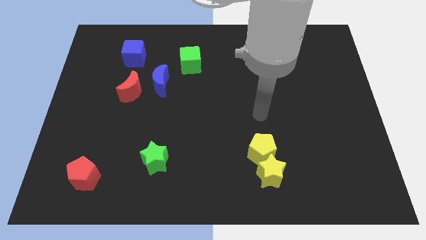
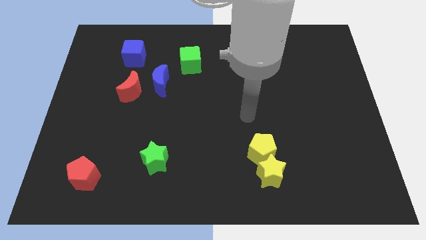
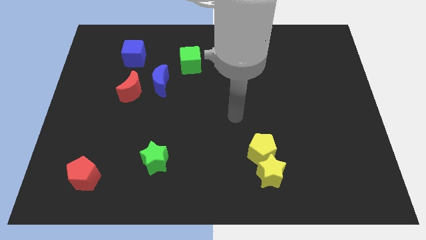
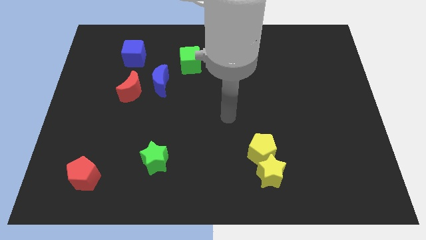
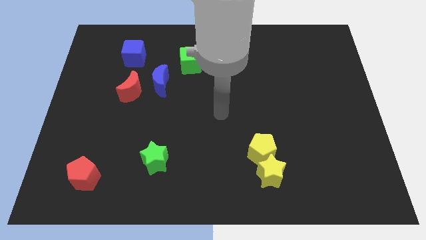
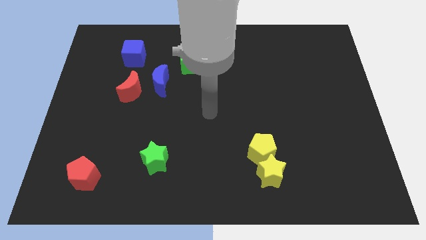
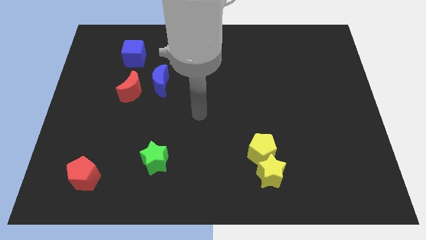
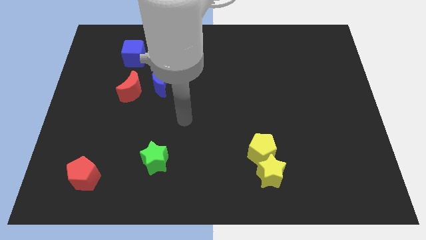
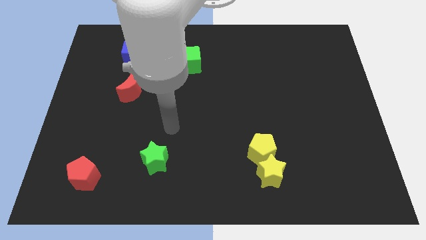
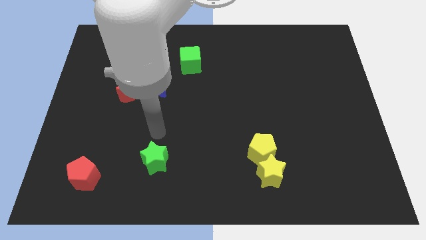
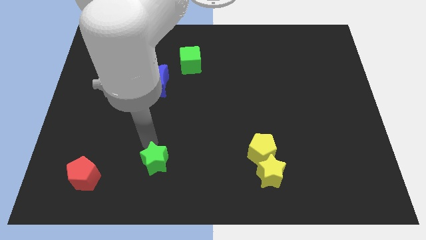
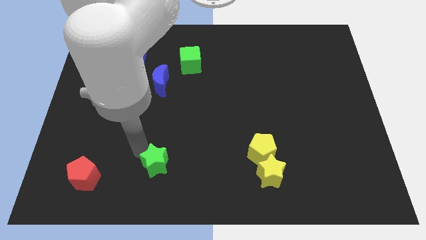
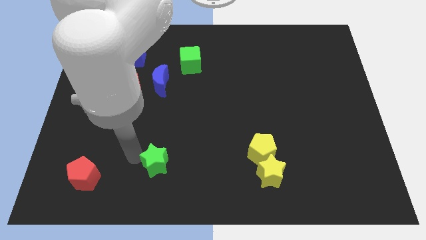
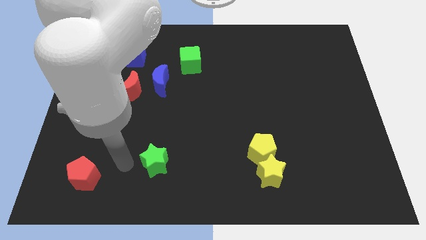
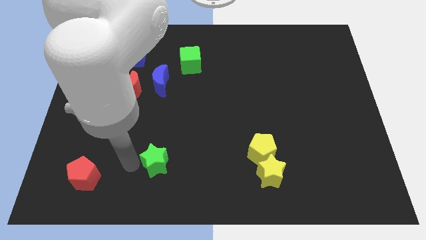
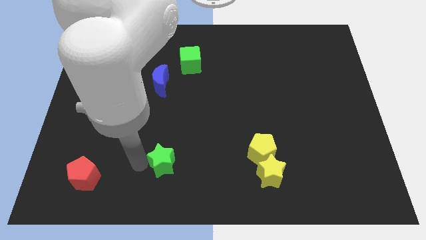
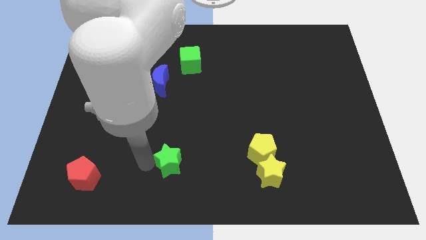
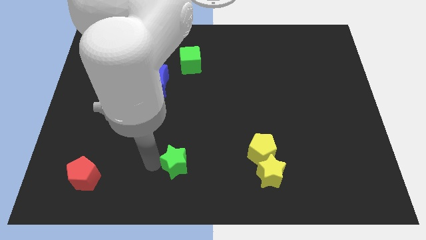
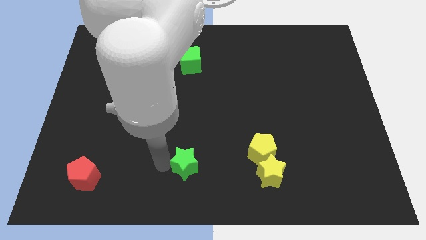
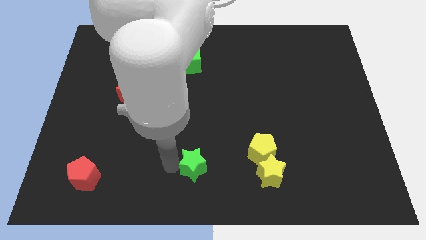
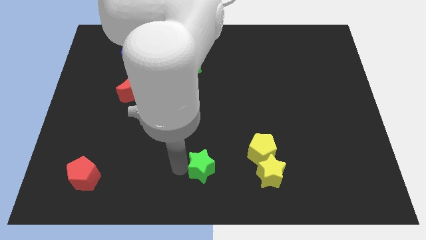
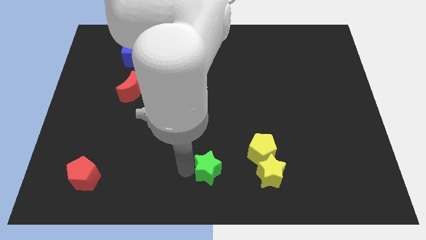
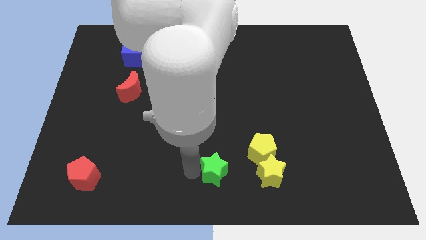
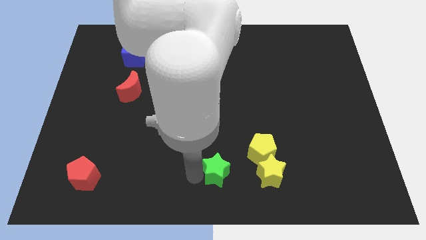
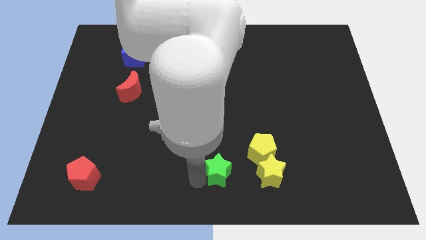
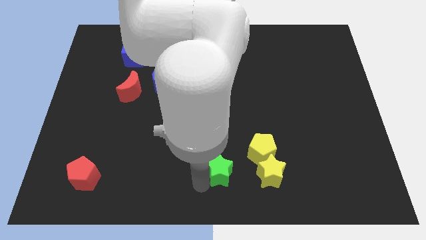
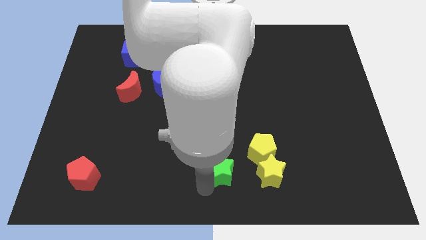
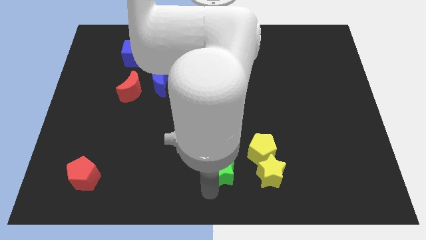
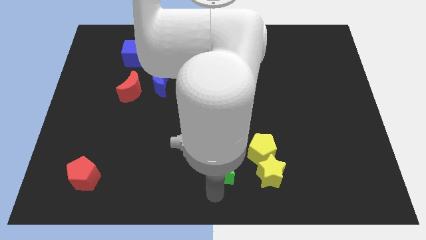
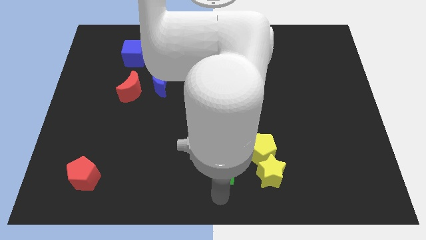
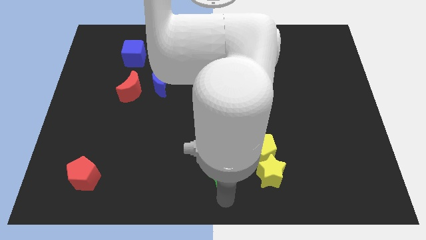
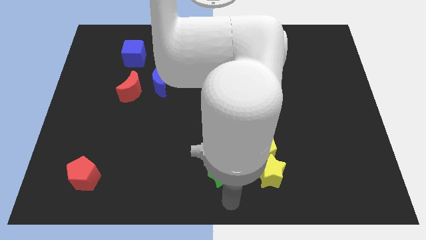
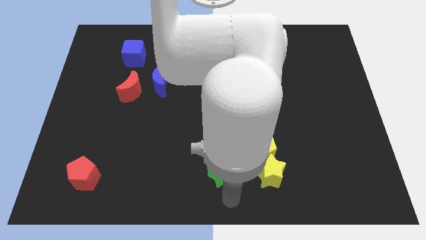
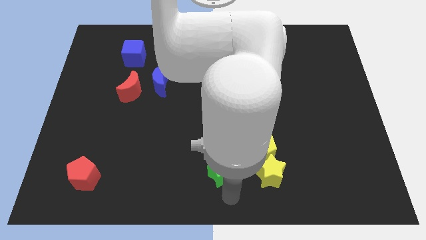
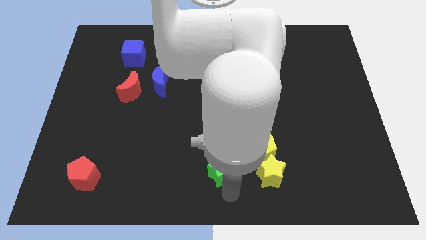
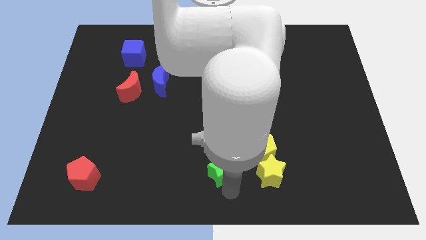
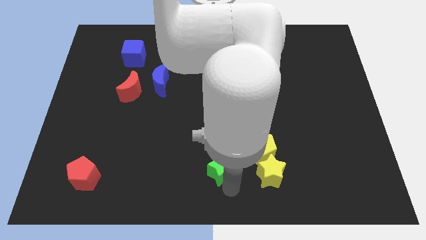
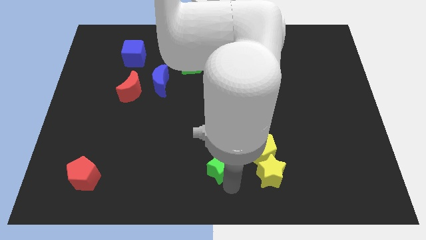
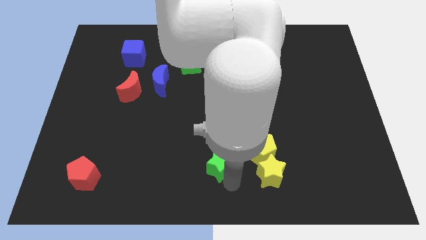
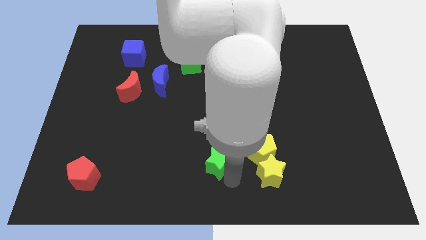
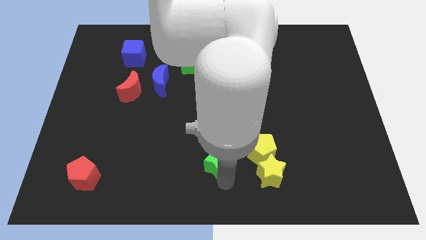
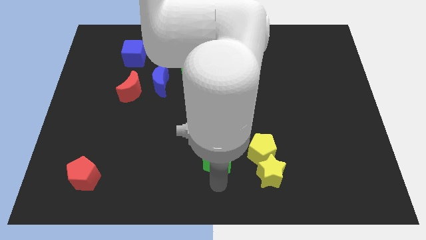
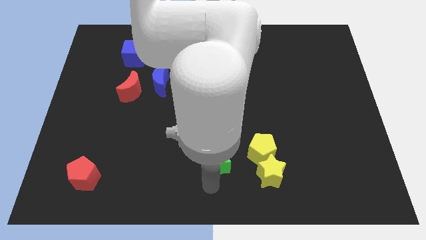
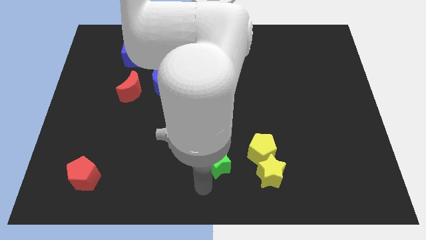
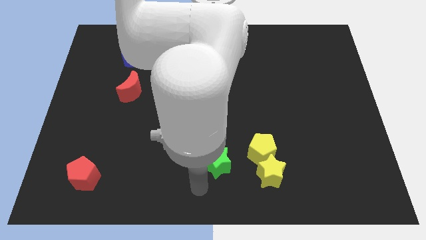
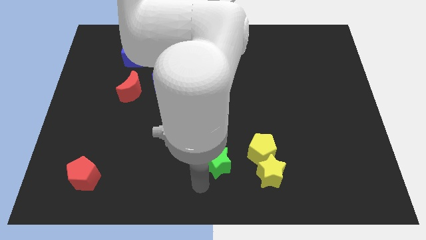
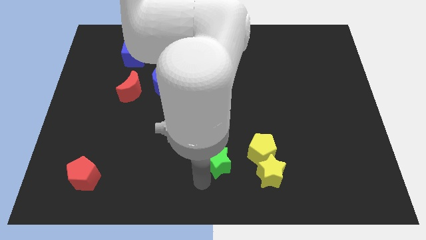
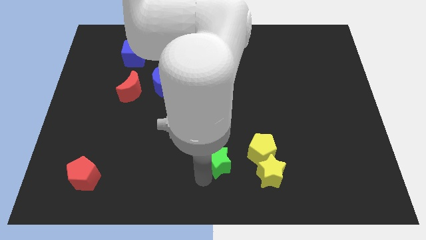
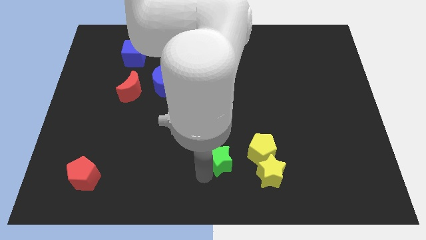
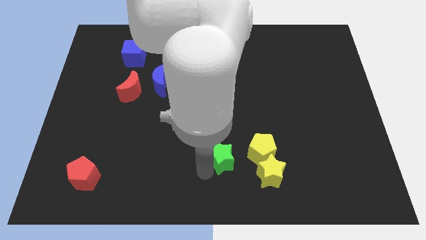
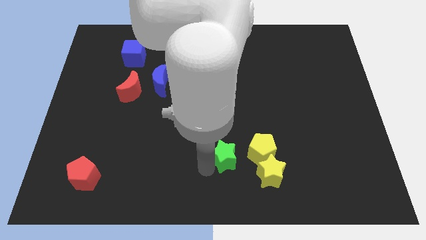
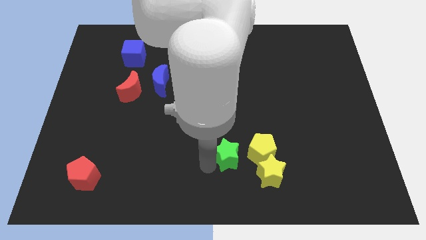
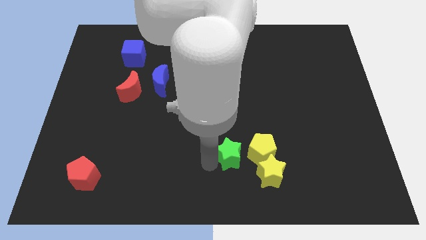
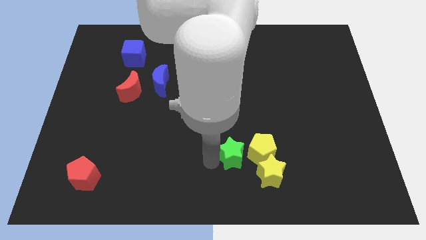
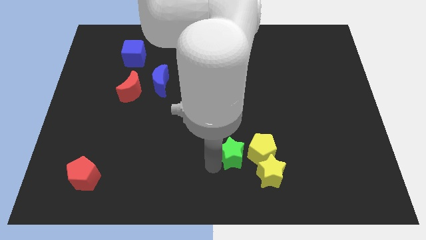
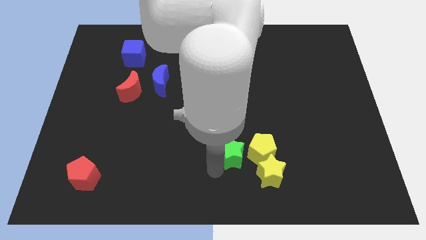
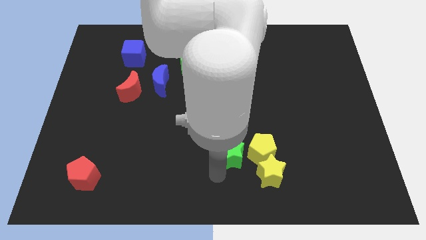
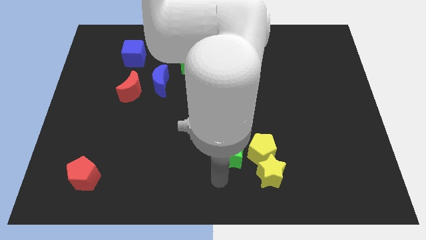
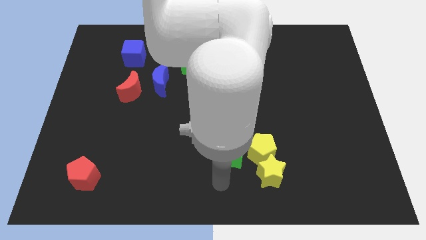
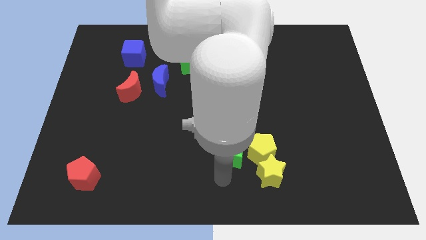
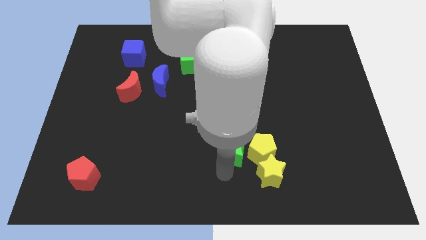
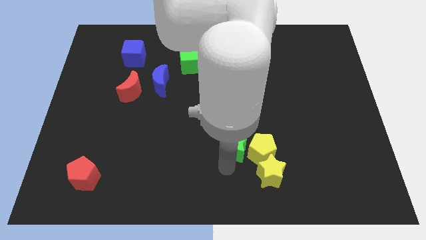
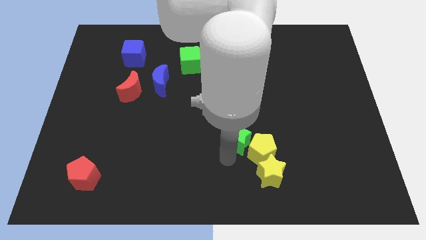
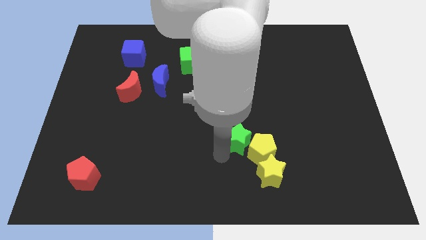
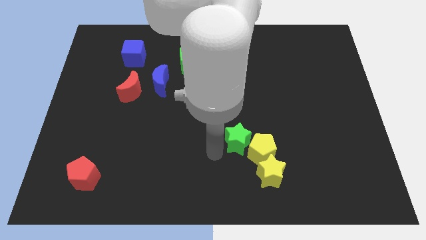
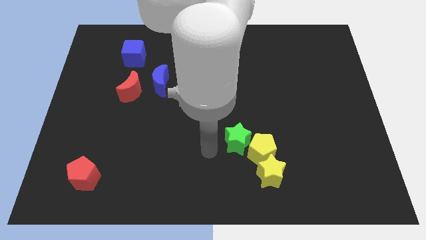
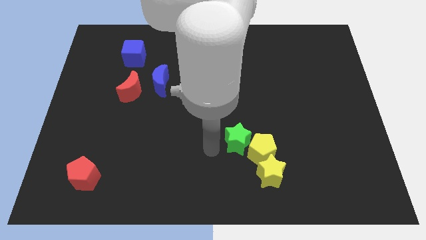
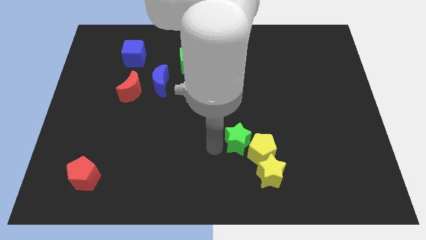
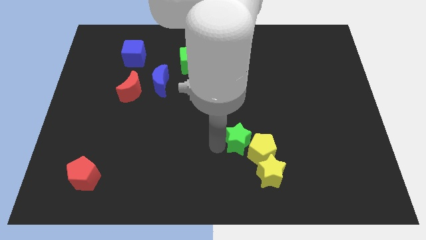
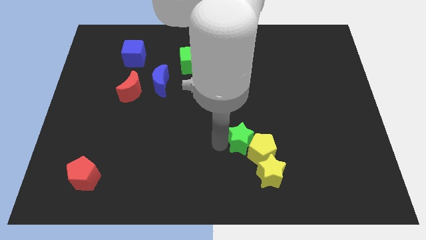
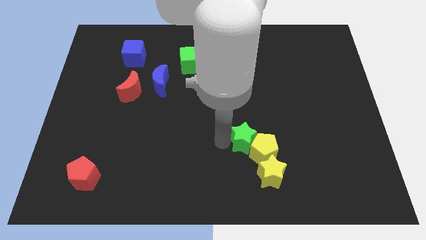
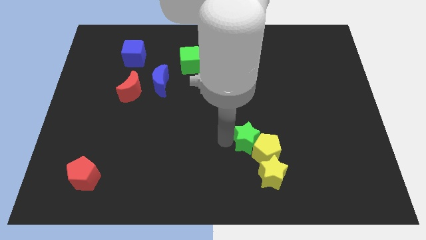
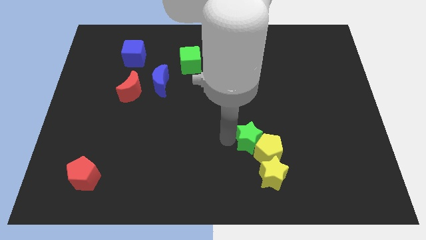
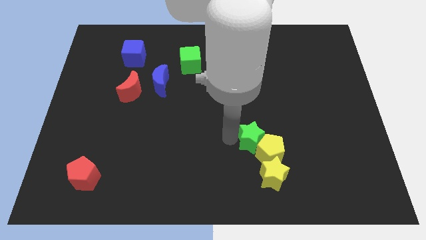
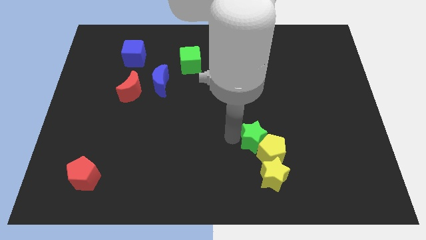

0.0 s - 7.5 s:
push the green star right

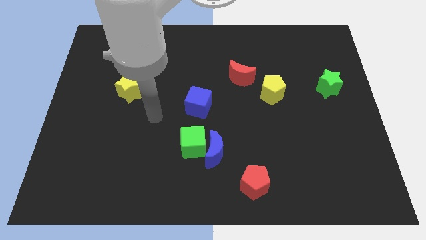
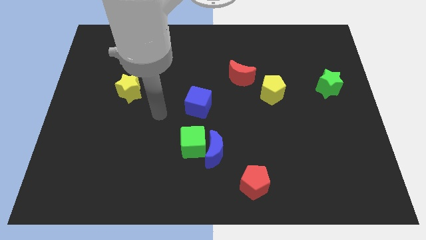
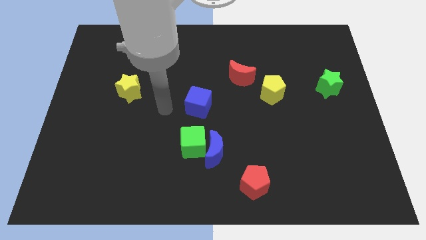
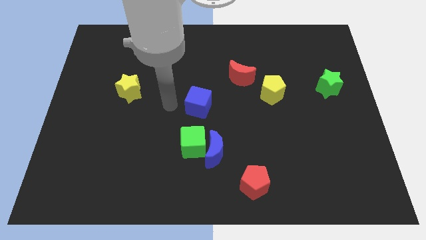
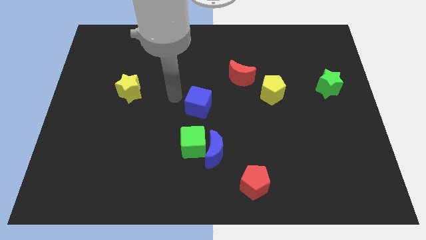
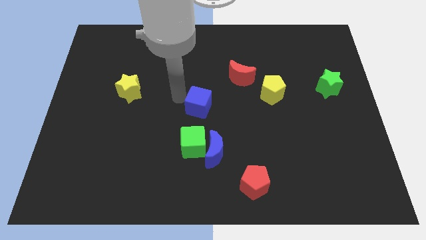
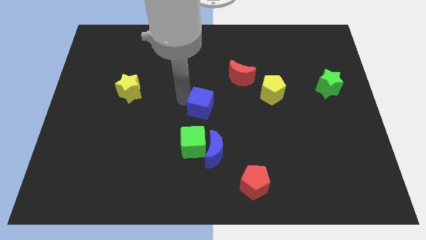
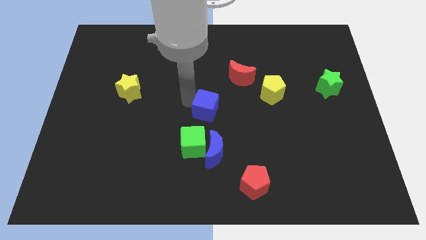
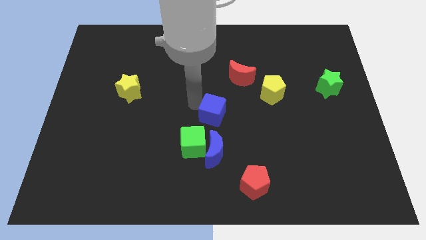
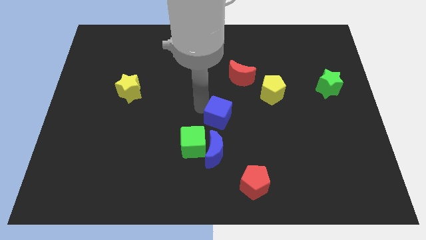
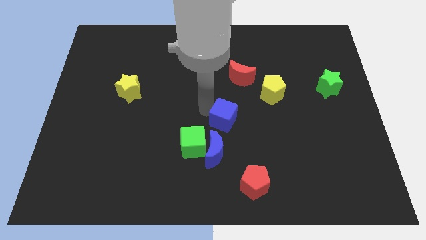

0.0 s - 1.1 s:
move the blue cube down and then right a little bit
